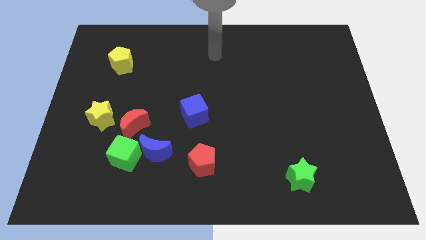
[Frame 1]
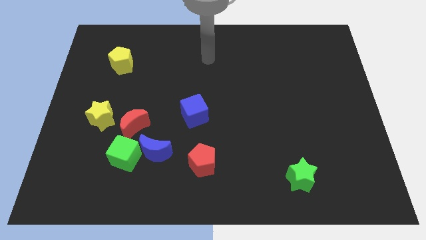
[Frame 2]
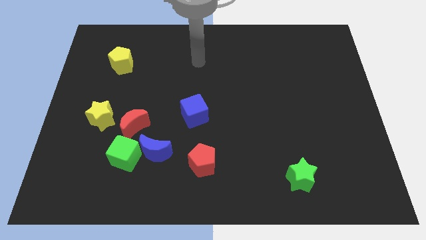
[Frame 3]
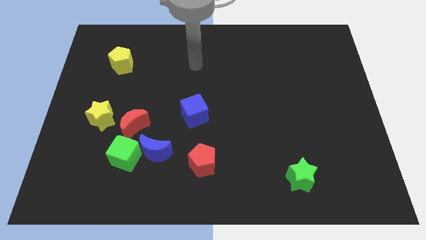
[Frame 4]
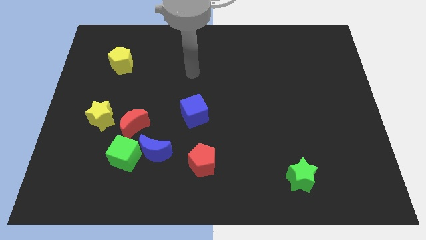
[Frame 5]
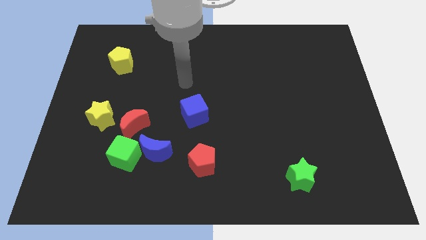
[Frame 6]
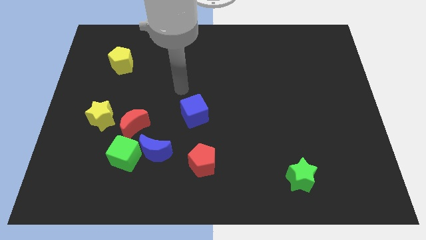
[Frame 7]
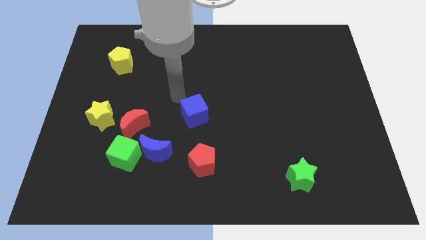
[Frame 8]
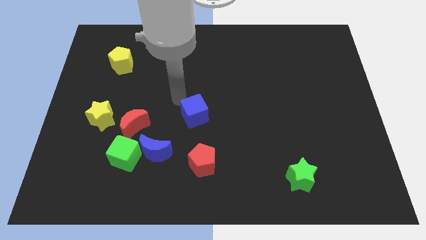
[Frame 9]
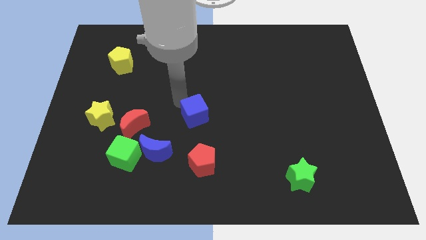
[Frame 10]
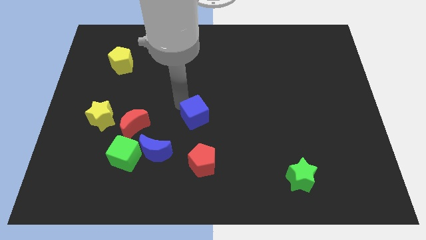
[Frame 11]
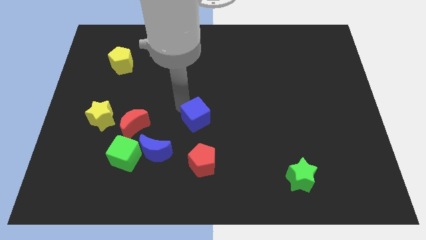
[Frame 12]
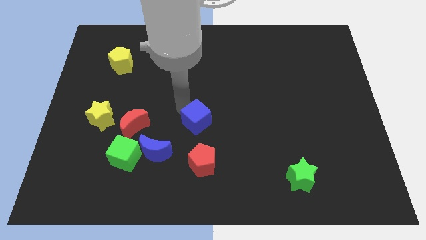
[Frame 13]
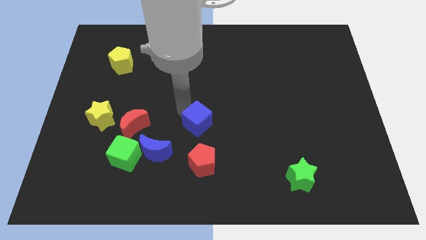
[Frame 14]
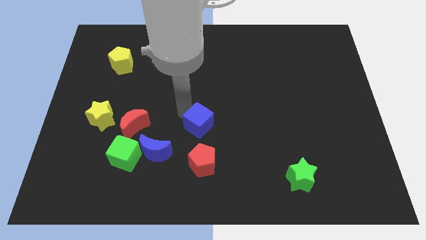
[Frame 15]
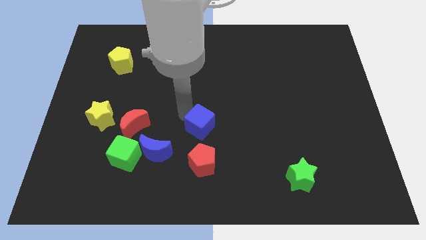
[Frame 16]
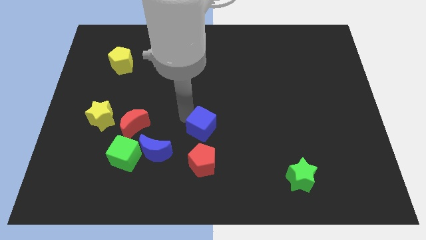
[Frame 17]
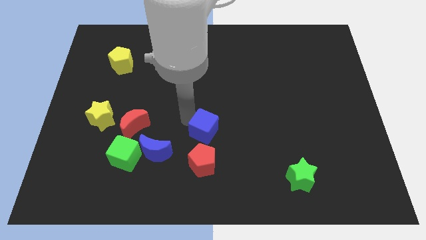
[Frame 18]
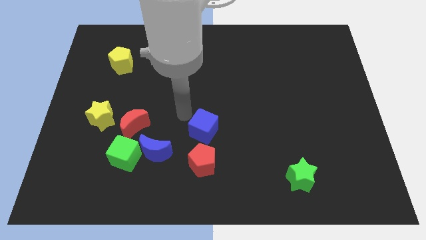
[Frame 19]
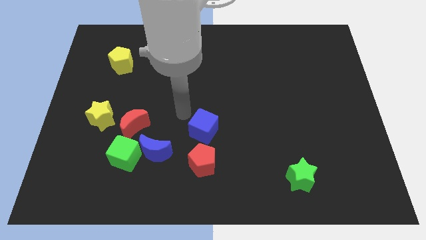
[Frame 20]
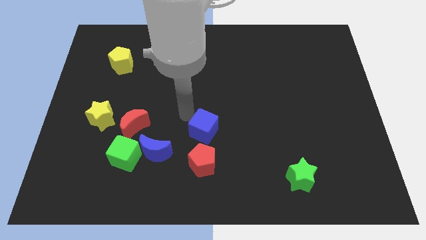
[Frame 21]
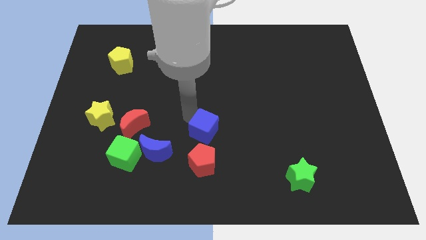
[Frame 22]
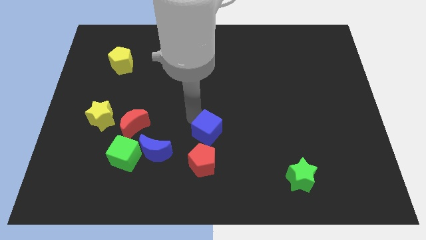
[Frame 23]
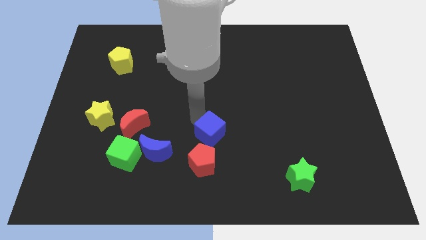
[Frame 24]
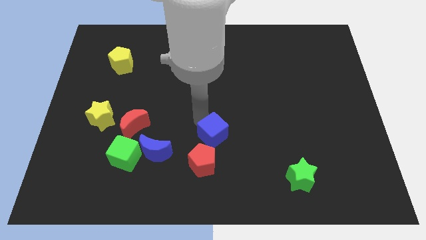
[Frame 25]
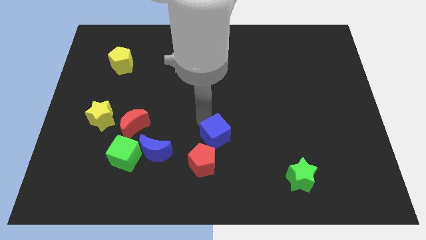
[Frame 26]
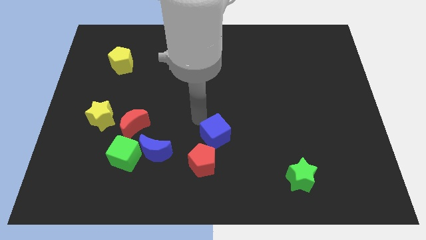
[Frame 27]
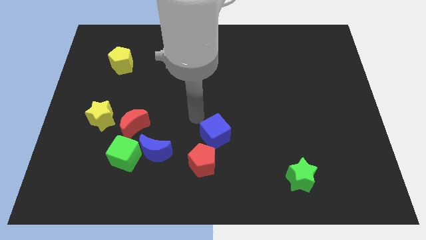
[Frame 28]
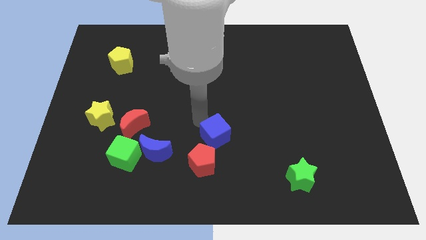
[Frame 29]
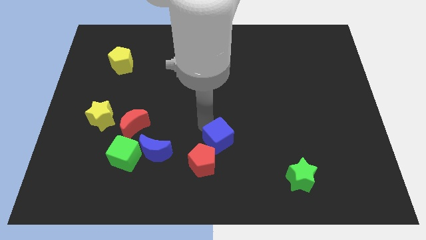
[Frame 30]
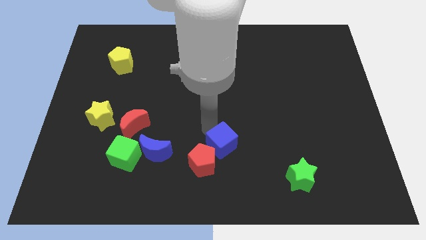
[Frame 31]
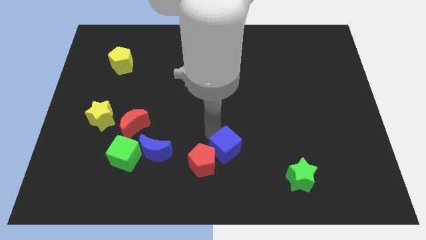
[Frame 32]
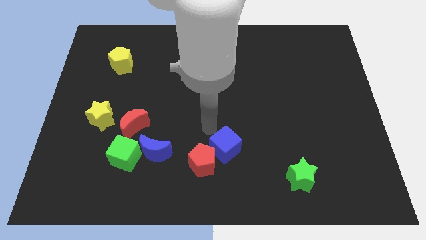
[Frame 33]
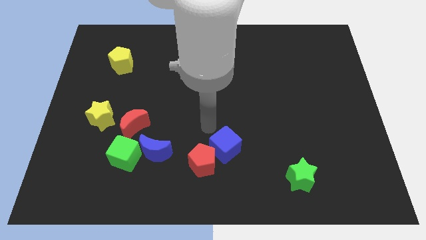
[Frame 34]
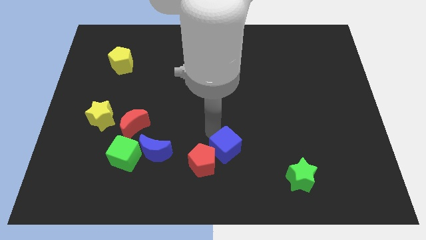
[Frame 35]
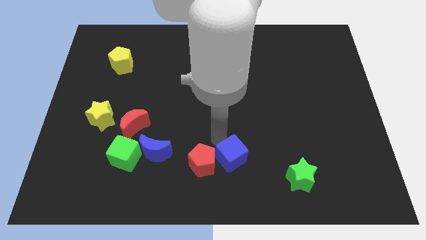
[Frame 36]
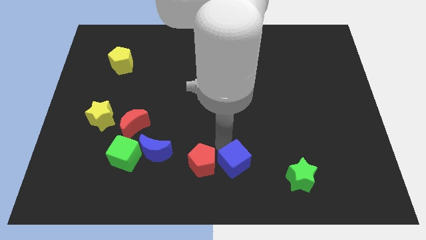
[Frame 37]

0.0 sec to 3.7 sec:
slide the blue cube to the left side of the green star

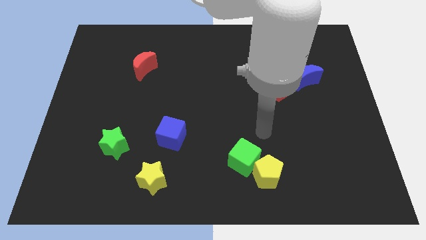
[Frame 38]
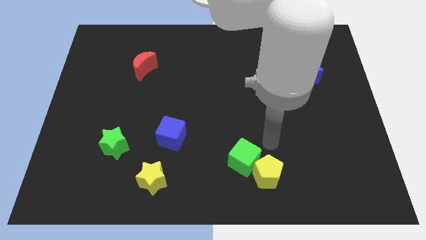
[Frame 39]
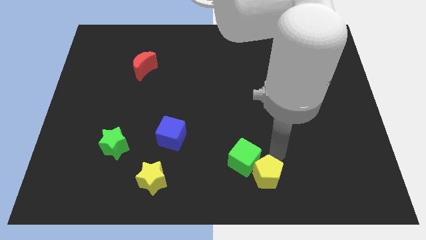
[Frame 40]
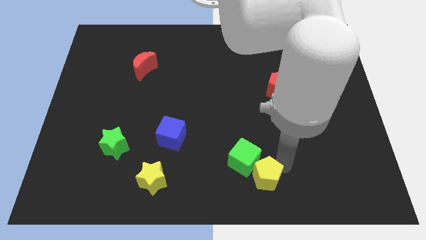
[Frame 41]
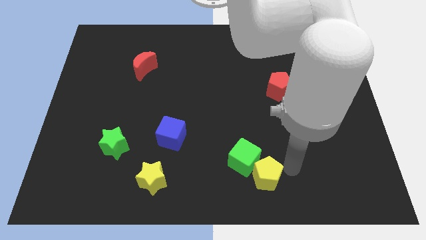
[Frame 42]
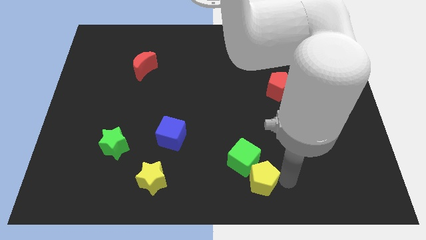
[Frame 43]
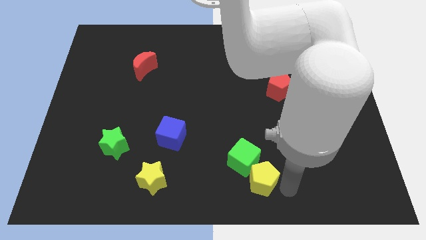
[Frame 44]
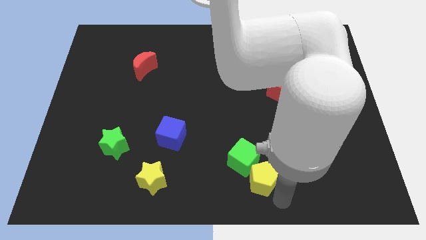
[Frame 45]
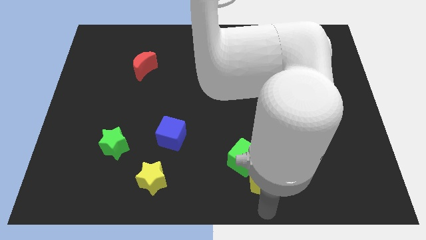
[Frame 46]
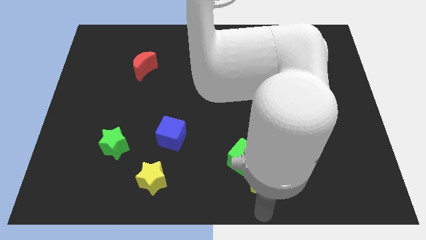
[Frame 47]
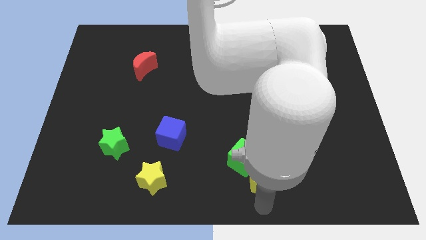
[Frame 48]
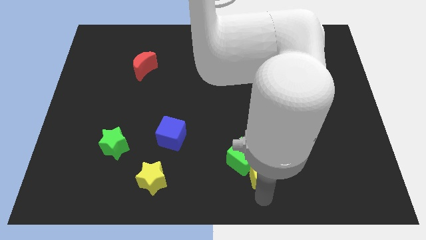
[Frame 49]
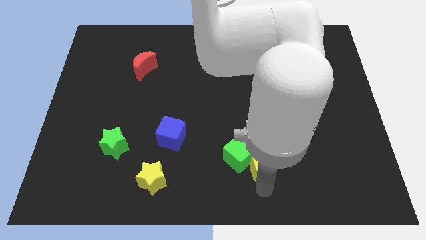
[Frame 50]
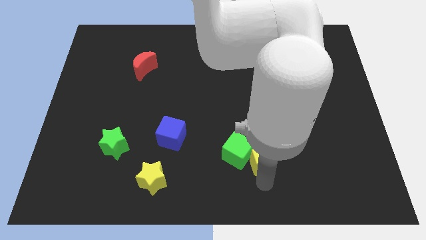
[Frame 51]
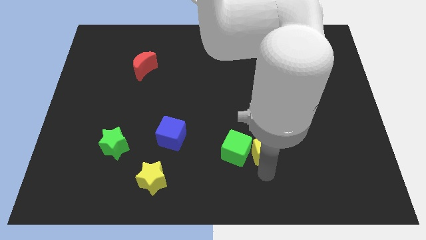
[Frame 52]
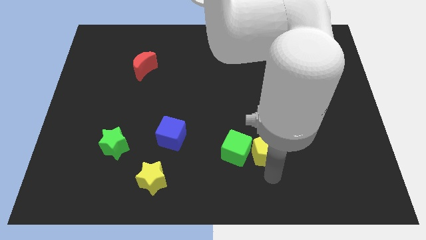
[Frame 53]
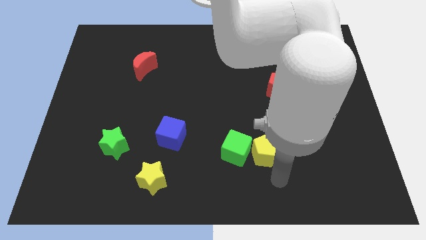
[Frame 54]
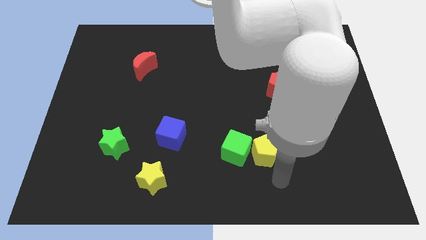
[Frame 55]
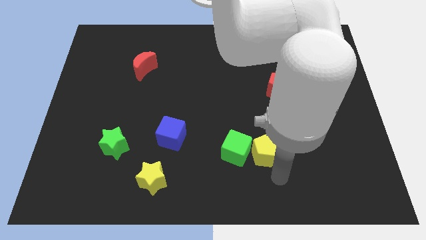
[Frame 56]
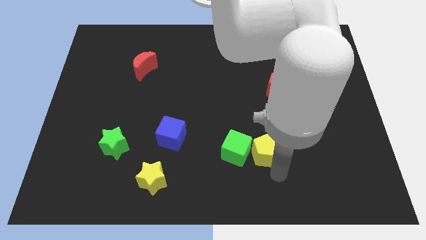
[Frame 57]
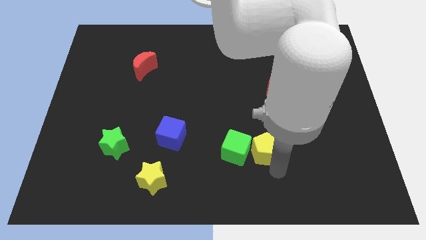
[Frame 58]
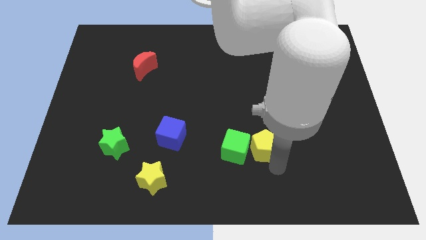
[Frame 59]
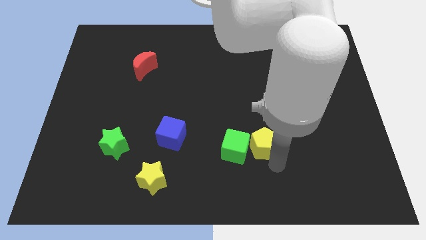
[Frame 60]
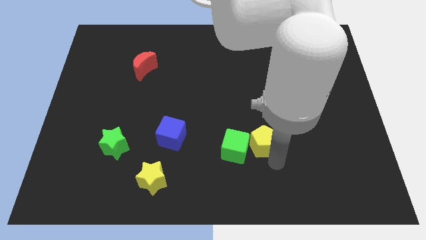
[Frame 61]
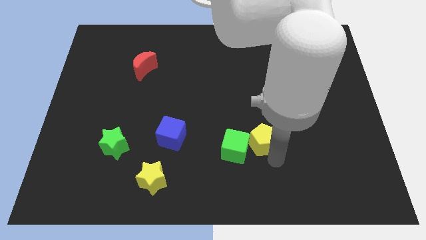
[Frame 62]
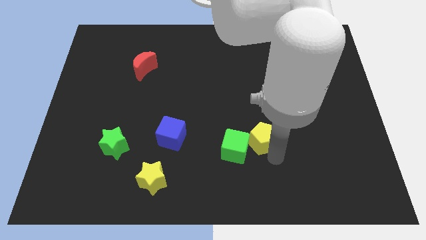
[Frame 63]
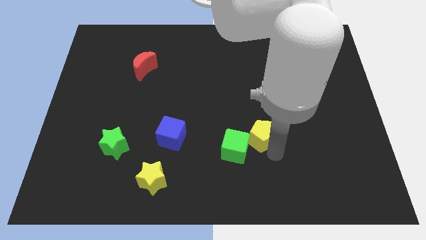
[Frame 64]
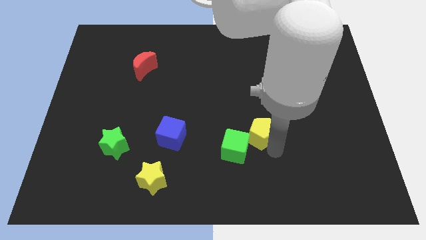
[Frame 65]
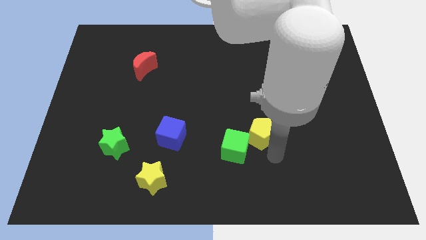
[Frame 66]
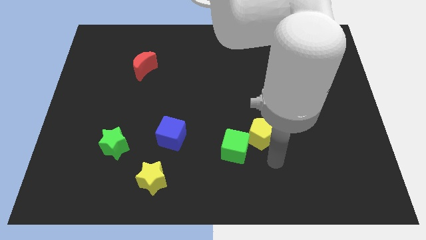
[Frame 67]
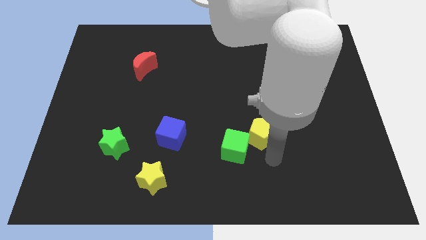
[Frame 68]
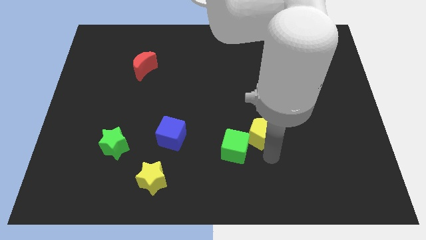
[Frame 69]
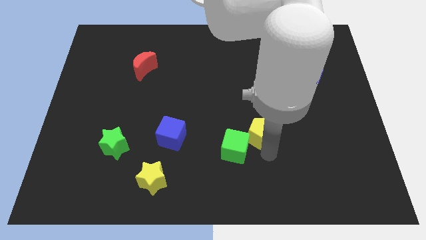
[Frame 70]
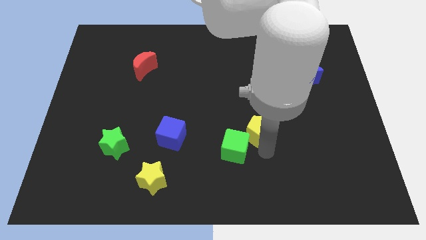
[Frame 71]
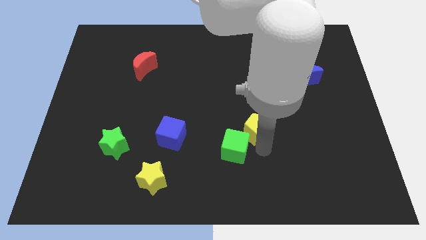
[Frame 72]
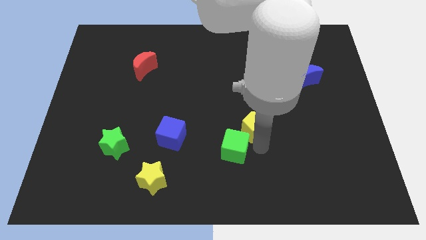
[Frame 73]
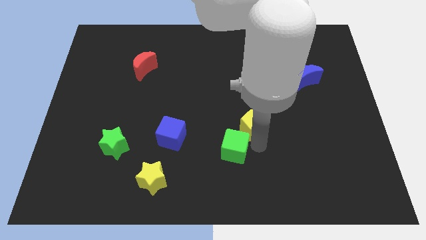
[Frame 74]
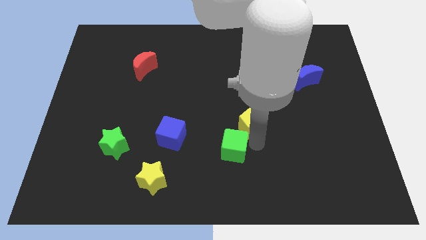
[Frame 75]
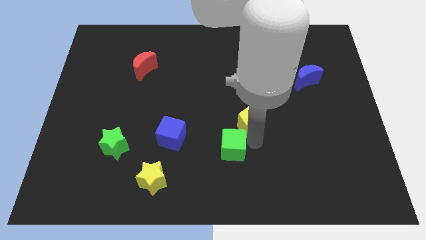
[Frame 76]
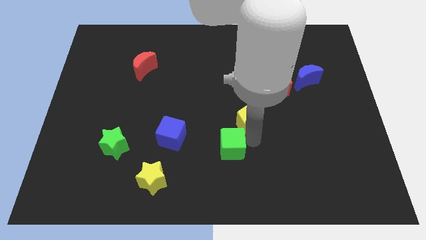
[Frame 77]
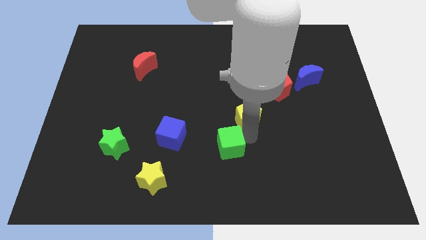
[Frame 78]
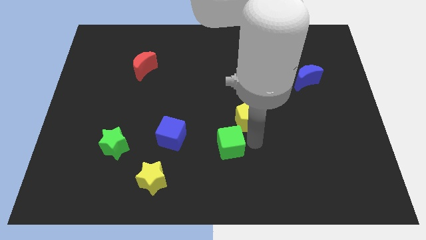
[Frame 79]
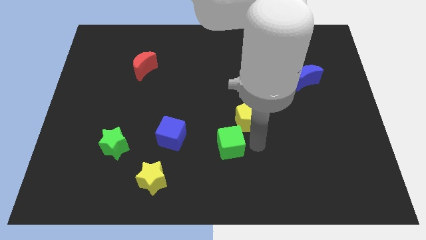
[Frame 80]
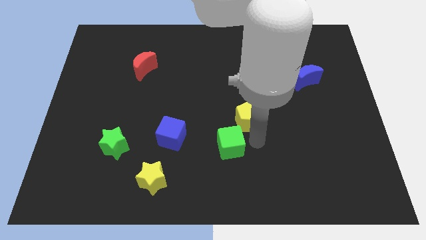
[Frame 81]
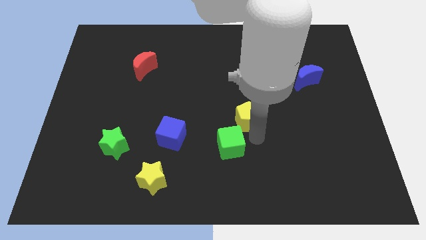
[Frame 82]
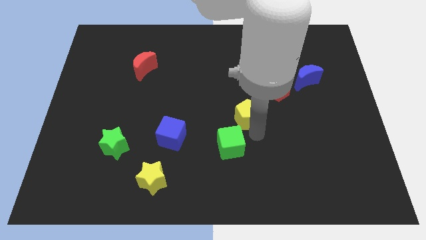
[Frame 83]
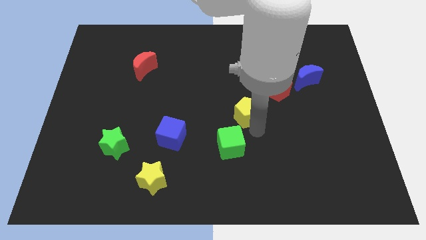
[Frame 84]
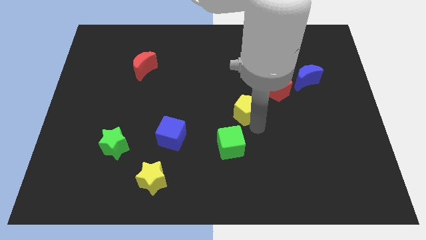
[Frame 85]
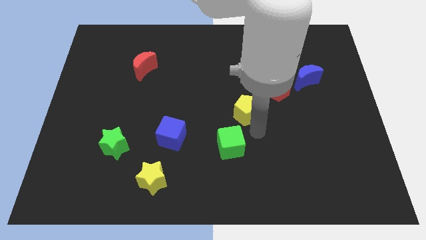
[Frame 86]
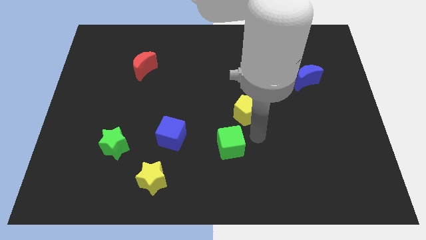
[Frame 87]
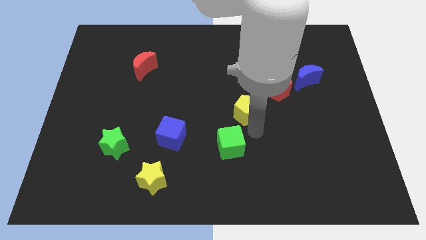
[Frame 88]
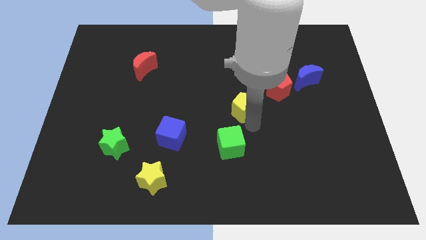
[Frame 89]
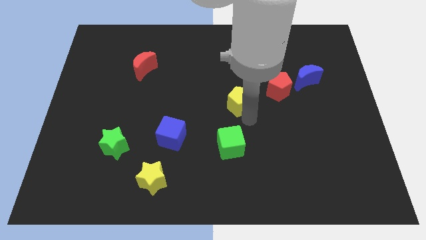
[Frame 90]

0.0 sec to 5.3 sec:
move the yellow pentagon left of the red pentagon
